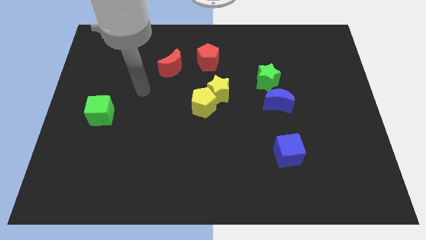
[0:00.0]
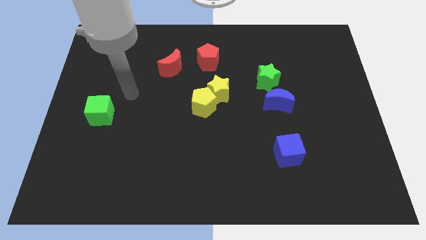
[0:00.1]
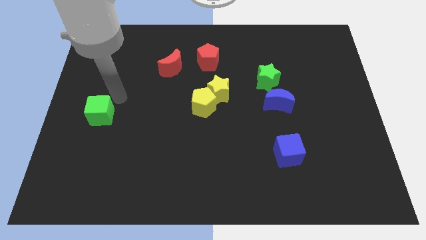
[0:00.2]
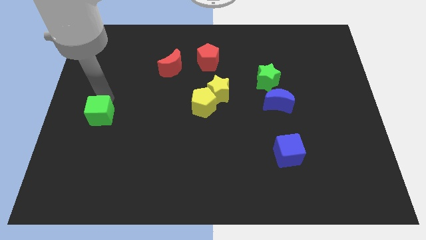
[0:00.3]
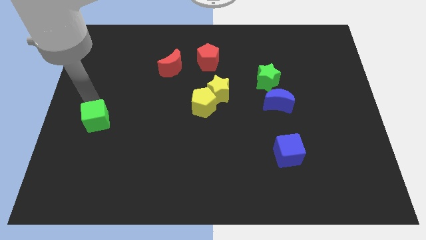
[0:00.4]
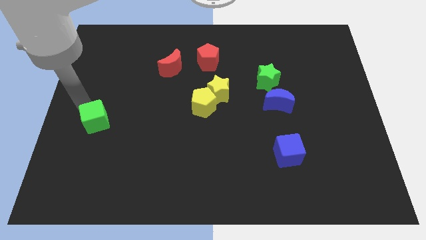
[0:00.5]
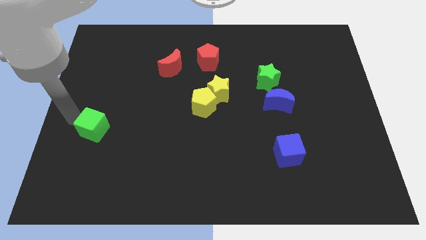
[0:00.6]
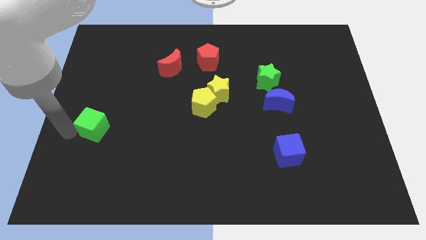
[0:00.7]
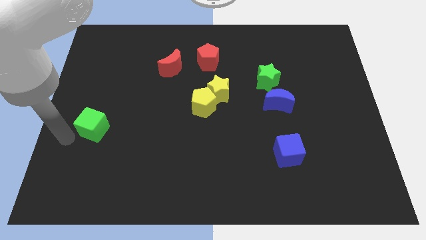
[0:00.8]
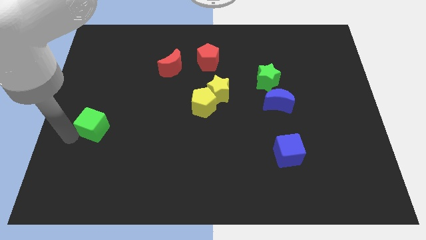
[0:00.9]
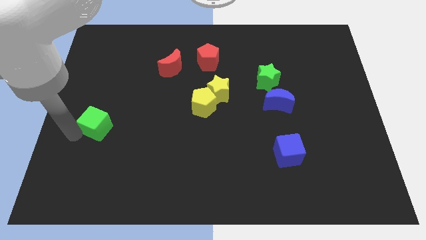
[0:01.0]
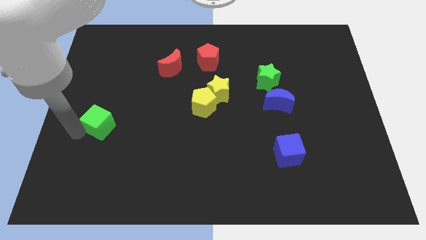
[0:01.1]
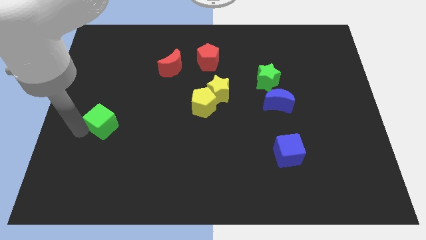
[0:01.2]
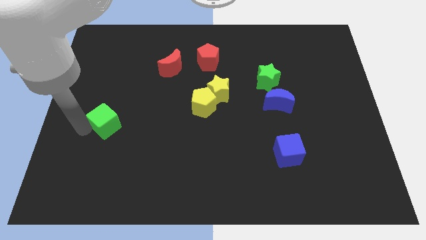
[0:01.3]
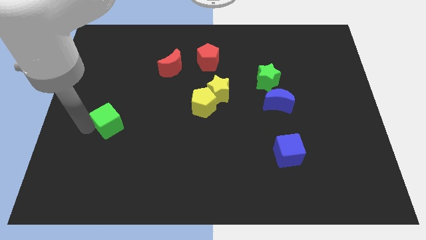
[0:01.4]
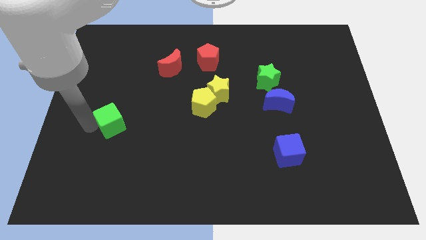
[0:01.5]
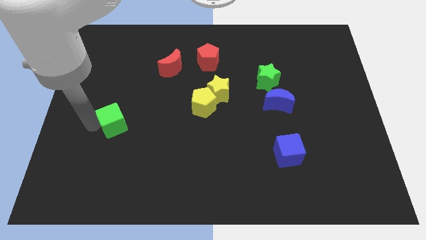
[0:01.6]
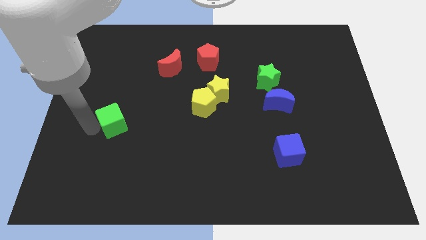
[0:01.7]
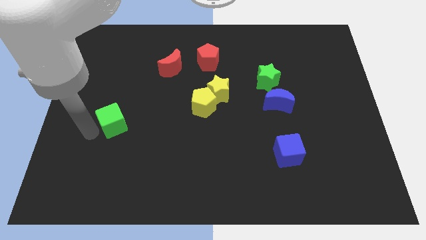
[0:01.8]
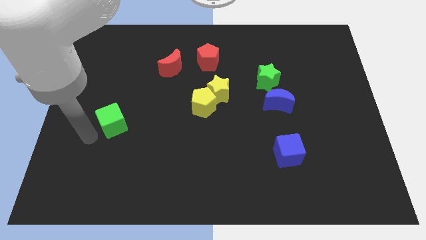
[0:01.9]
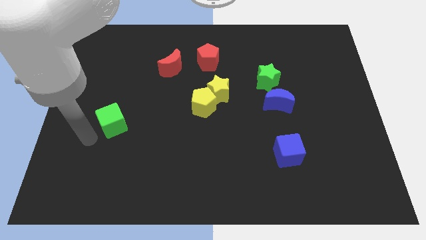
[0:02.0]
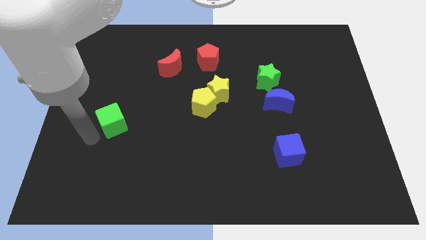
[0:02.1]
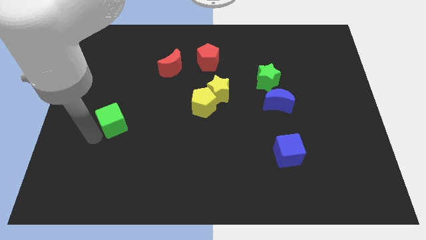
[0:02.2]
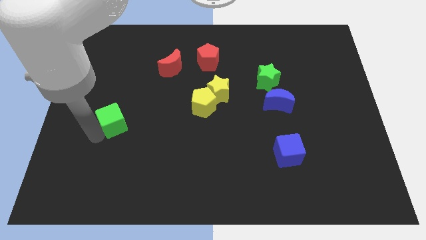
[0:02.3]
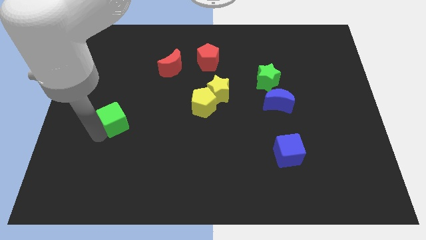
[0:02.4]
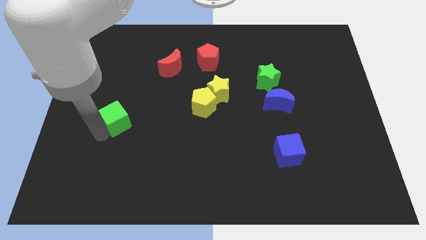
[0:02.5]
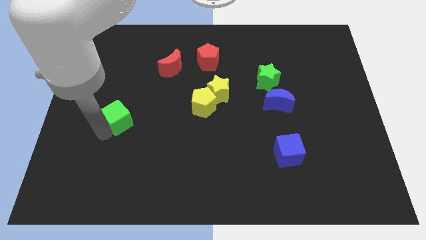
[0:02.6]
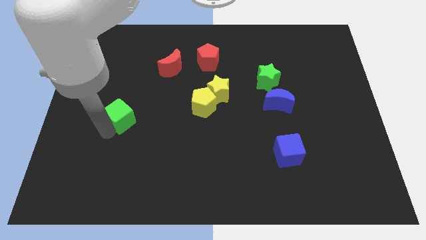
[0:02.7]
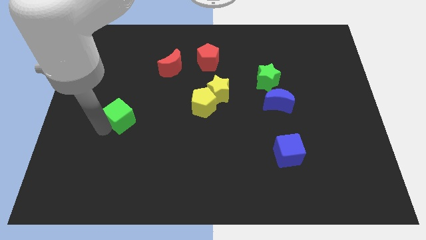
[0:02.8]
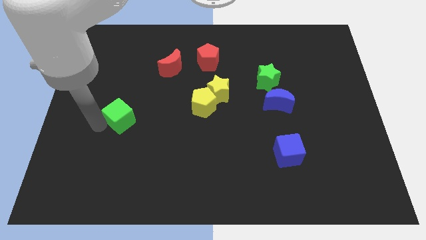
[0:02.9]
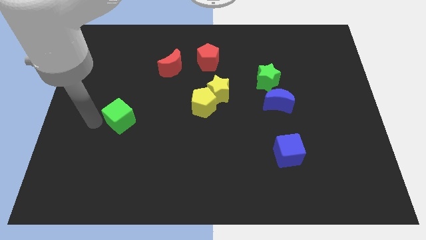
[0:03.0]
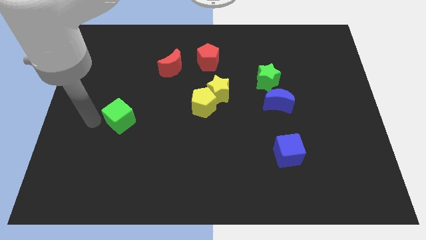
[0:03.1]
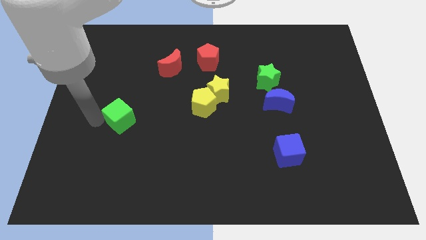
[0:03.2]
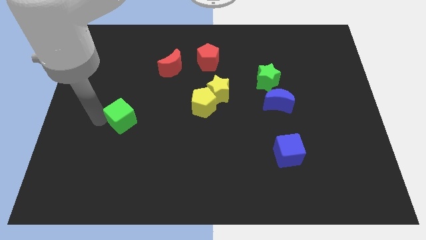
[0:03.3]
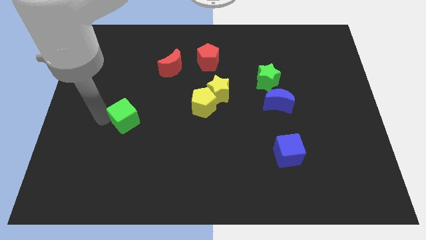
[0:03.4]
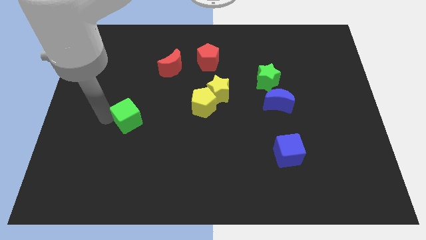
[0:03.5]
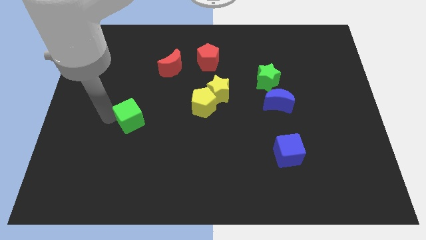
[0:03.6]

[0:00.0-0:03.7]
slightly slide the green cube right

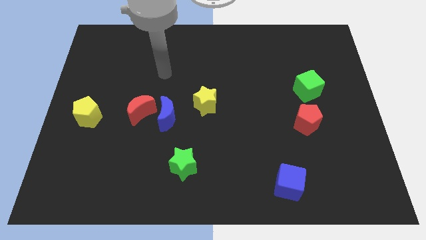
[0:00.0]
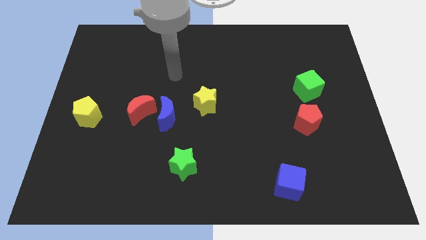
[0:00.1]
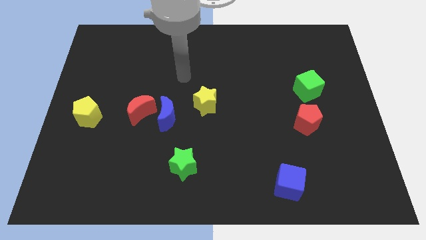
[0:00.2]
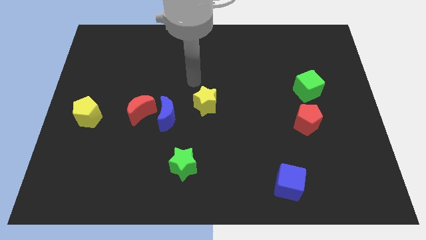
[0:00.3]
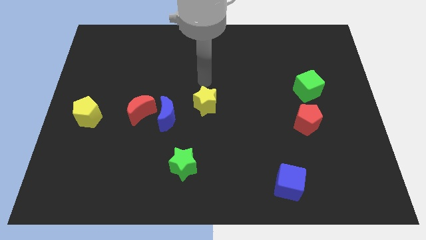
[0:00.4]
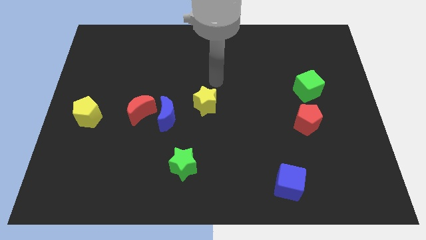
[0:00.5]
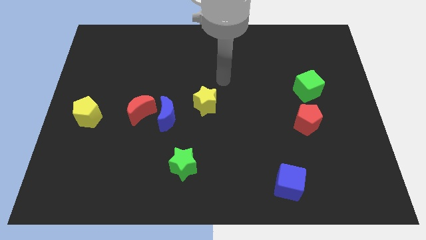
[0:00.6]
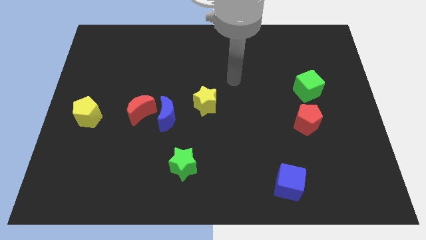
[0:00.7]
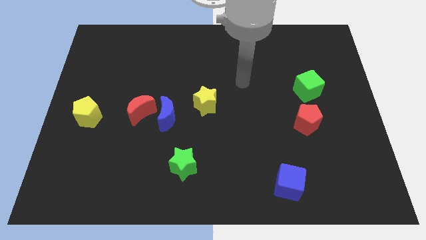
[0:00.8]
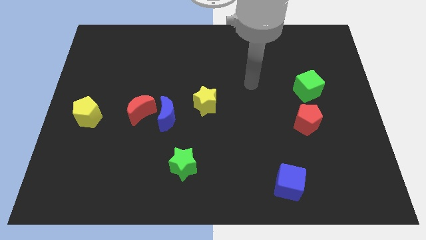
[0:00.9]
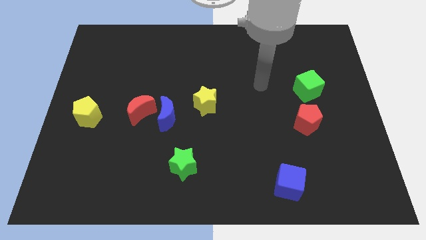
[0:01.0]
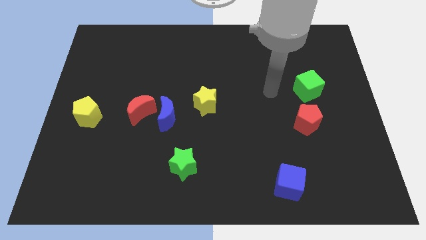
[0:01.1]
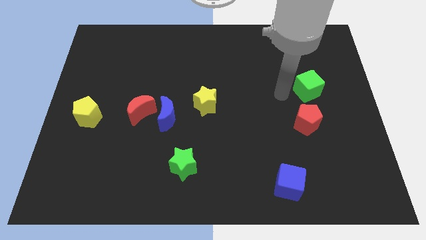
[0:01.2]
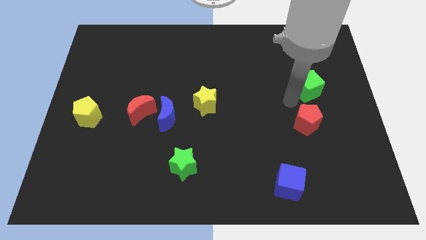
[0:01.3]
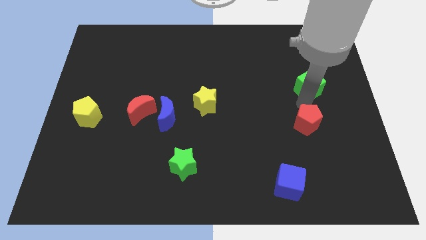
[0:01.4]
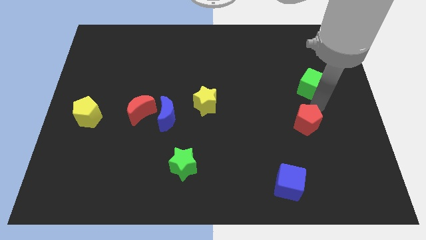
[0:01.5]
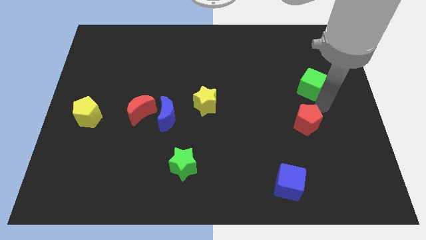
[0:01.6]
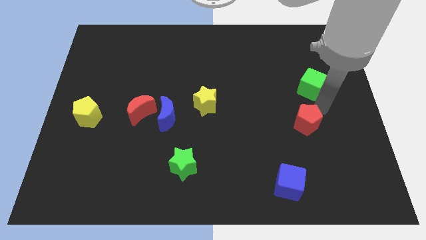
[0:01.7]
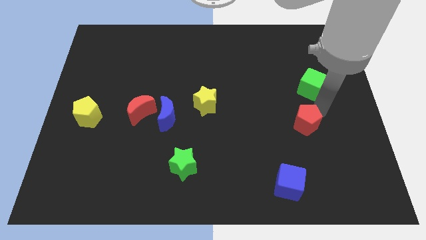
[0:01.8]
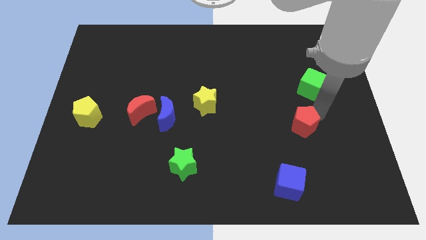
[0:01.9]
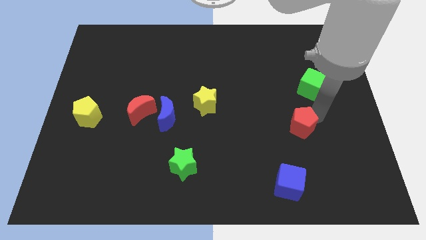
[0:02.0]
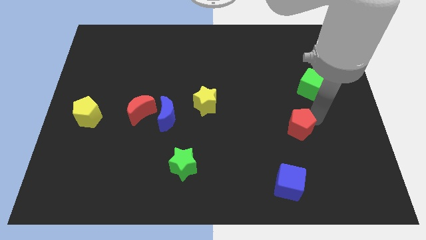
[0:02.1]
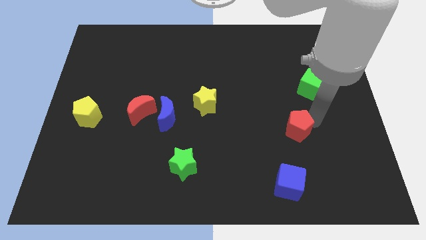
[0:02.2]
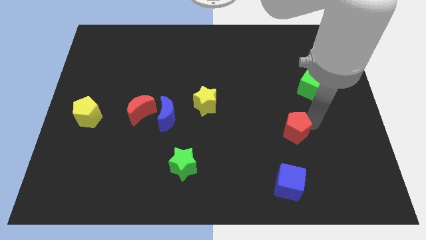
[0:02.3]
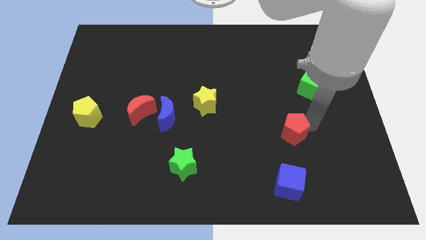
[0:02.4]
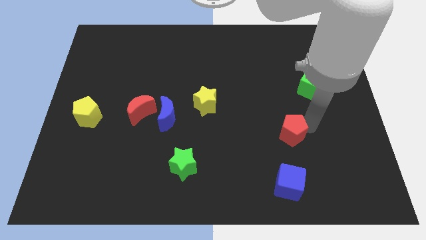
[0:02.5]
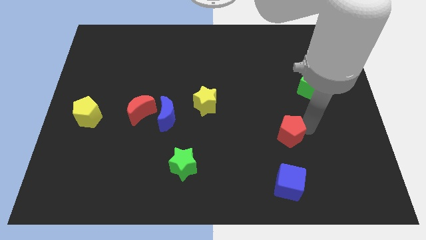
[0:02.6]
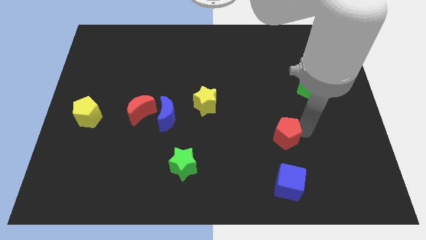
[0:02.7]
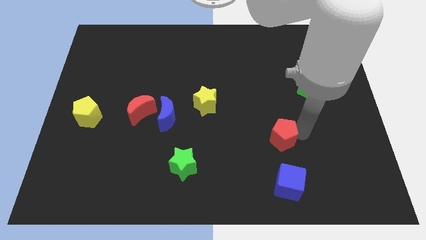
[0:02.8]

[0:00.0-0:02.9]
slide the red pentagon down and then to the left a little bit

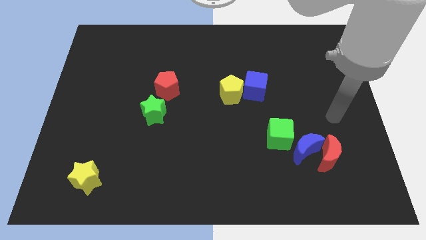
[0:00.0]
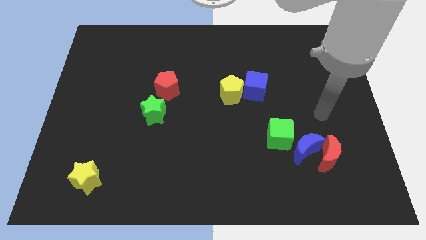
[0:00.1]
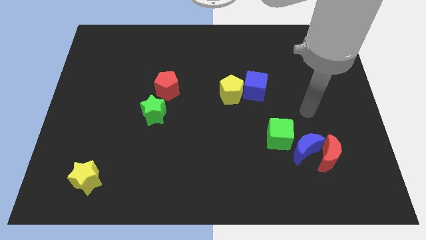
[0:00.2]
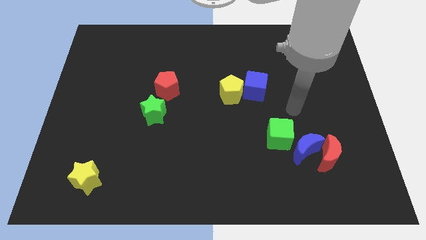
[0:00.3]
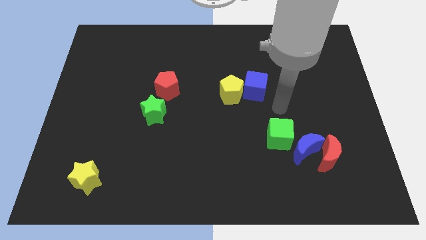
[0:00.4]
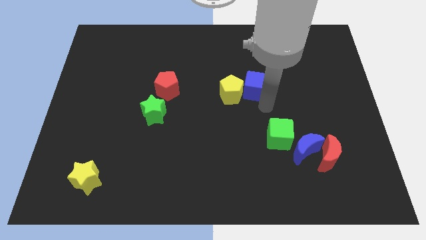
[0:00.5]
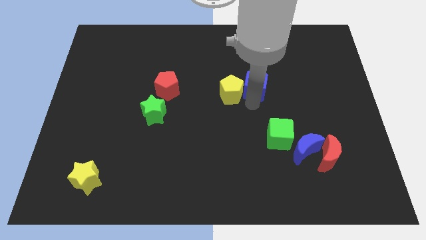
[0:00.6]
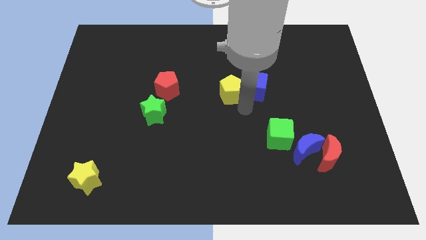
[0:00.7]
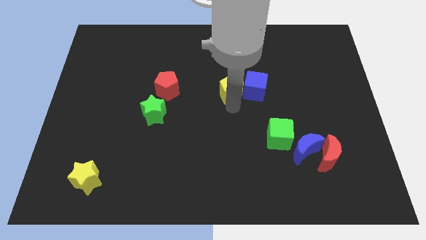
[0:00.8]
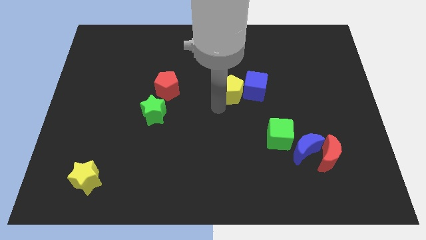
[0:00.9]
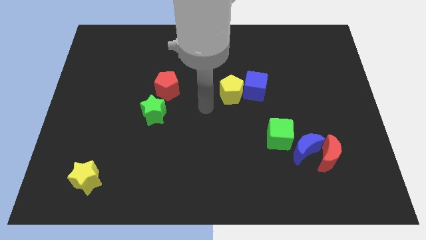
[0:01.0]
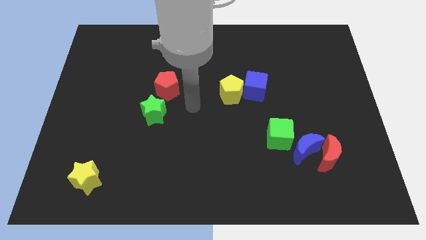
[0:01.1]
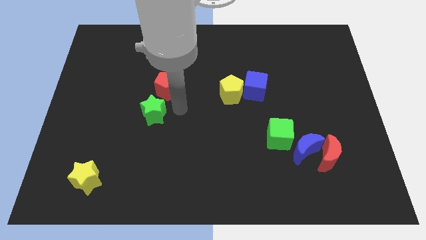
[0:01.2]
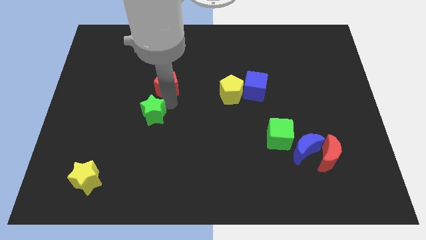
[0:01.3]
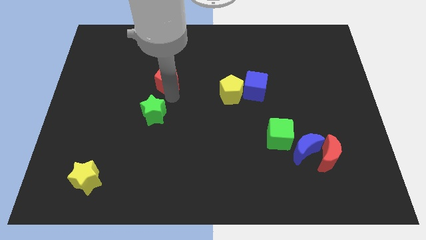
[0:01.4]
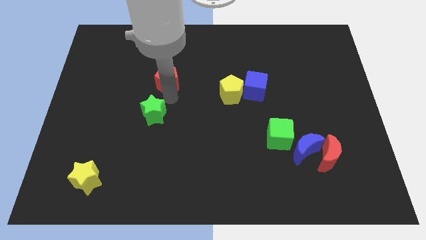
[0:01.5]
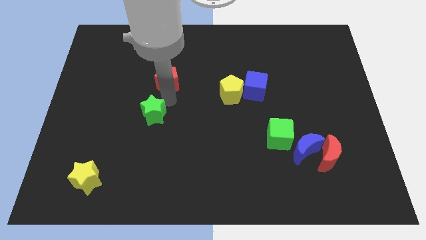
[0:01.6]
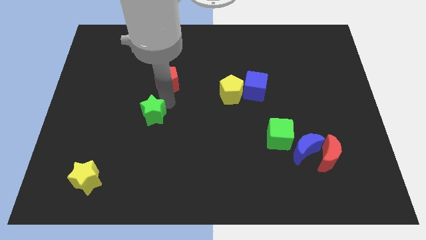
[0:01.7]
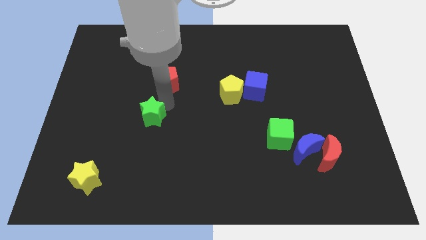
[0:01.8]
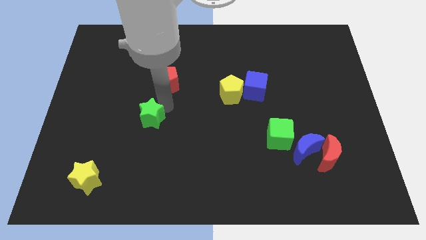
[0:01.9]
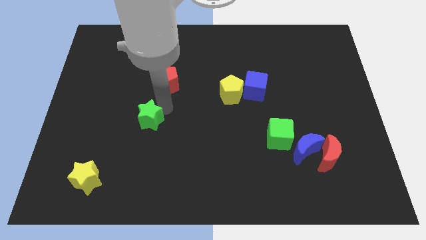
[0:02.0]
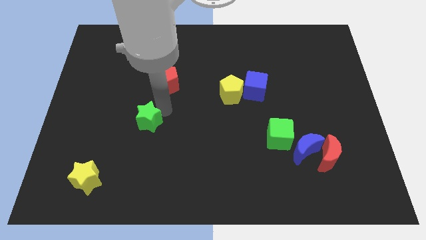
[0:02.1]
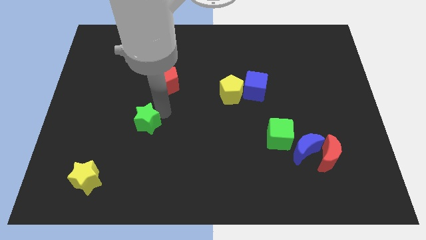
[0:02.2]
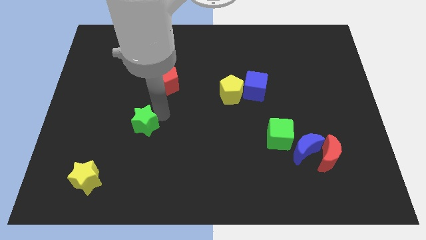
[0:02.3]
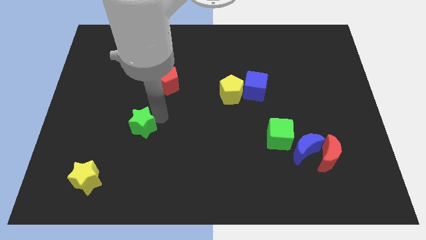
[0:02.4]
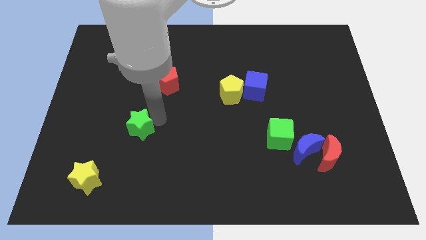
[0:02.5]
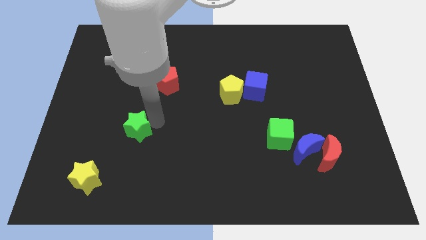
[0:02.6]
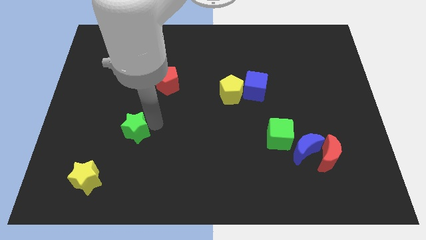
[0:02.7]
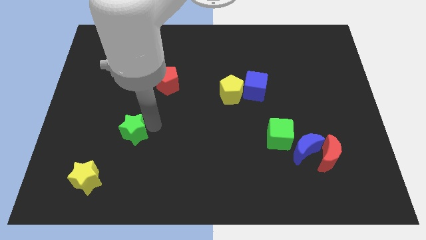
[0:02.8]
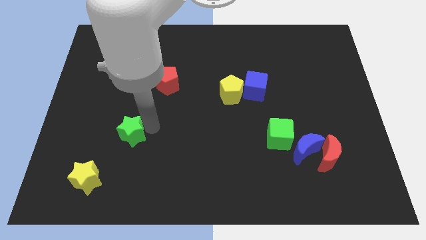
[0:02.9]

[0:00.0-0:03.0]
slightly move the green star diagonally downwards and to the left
